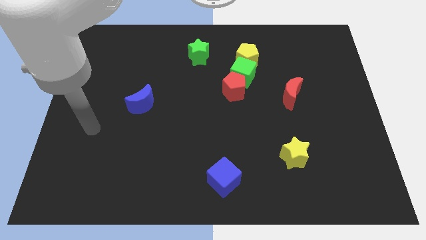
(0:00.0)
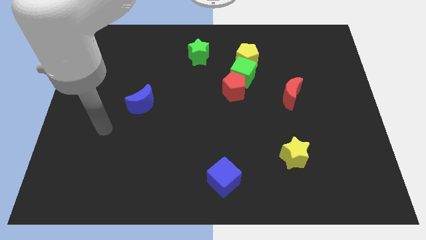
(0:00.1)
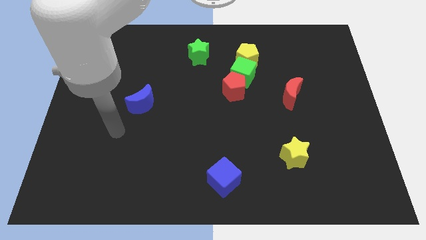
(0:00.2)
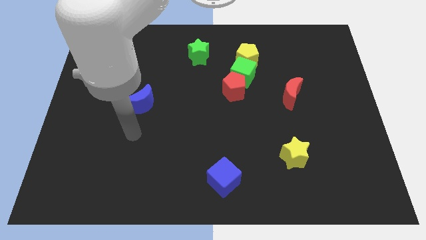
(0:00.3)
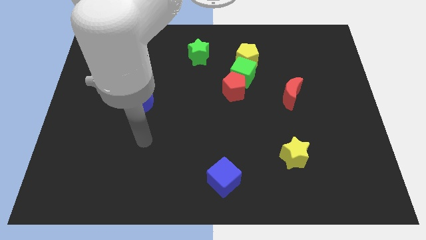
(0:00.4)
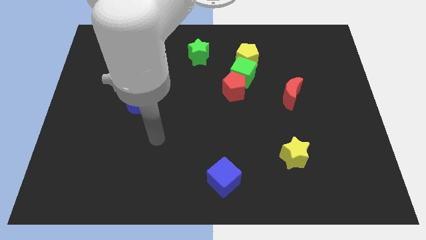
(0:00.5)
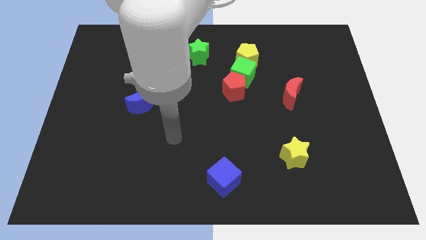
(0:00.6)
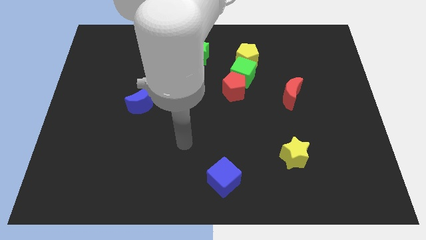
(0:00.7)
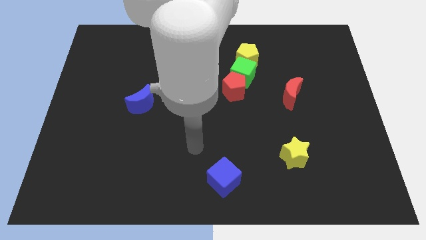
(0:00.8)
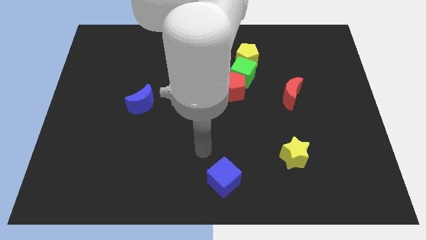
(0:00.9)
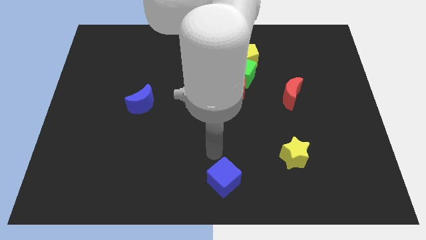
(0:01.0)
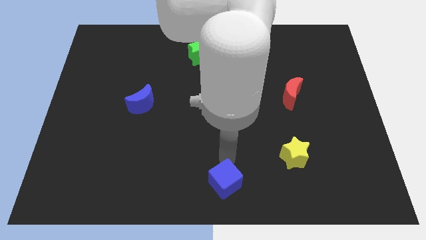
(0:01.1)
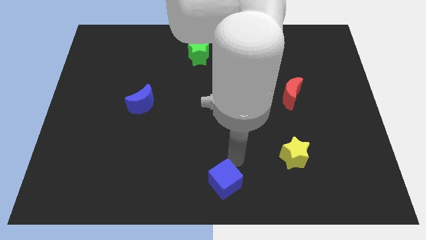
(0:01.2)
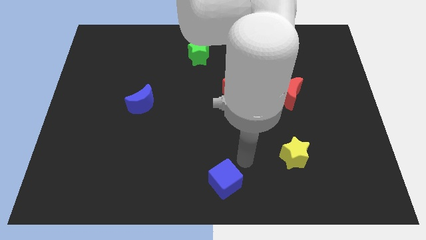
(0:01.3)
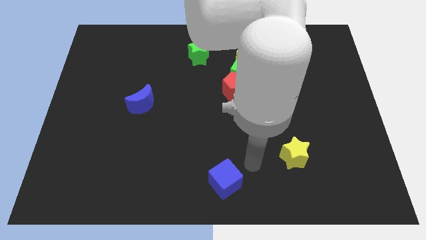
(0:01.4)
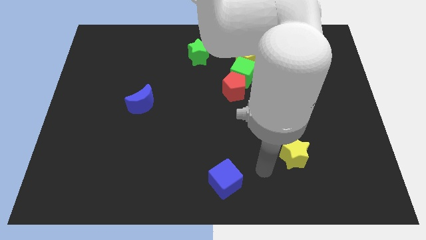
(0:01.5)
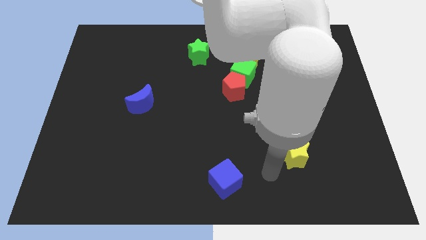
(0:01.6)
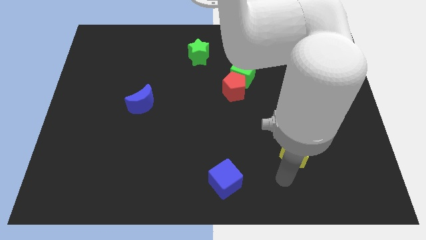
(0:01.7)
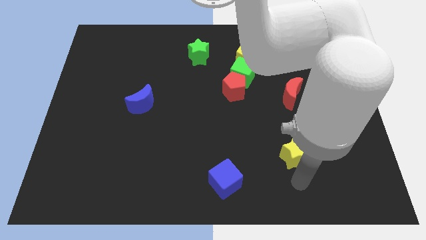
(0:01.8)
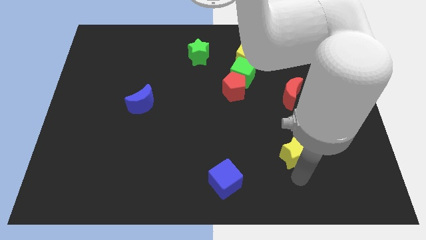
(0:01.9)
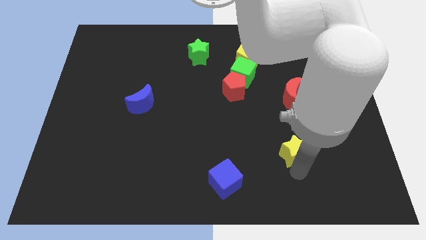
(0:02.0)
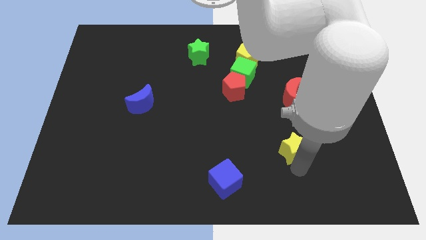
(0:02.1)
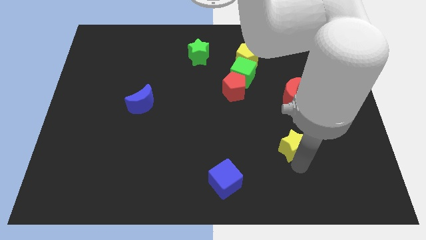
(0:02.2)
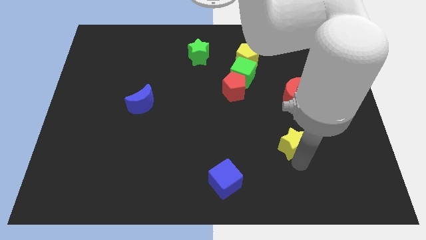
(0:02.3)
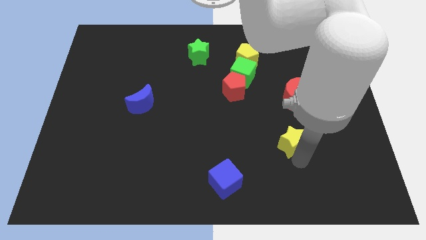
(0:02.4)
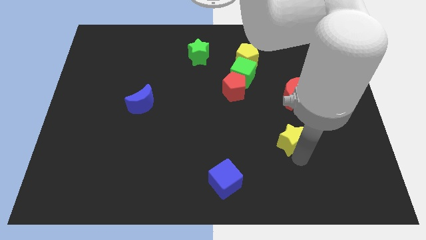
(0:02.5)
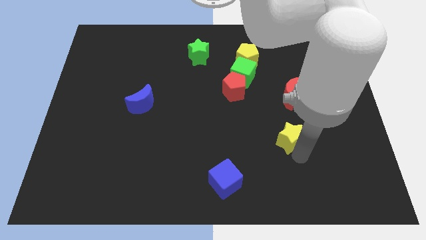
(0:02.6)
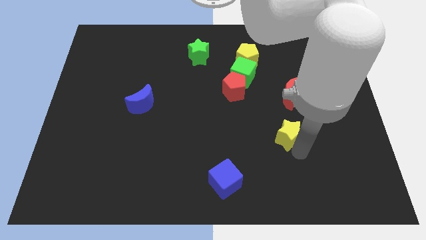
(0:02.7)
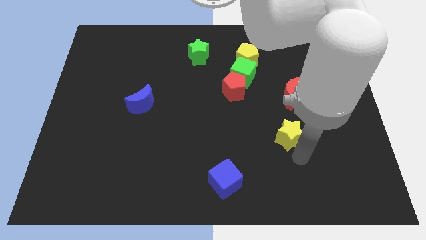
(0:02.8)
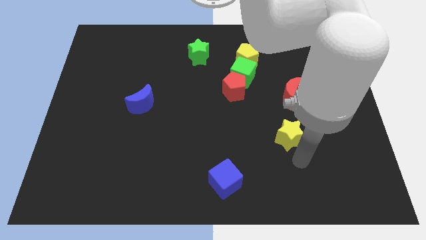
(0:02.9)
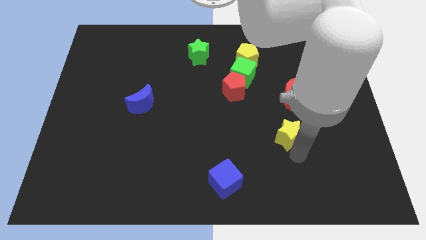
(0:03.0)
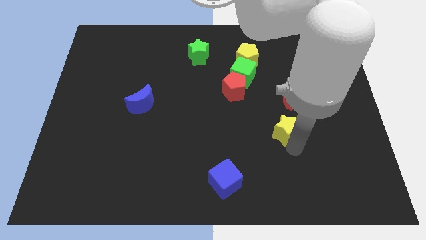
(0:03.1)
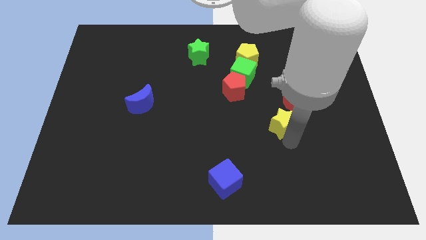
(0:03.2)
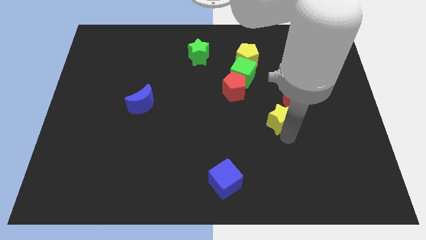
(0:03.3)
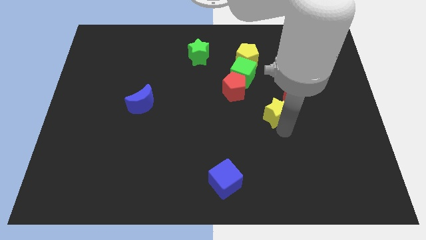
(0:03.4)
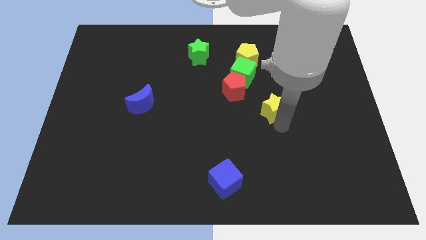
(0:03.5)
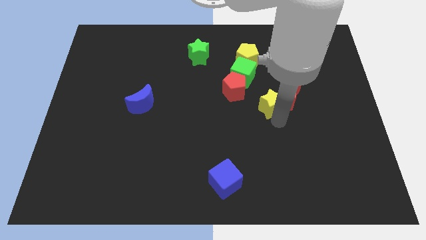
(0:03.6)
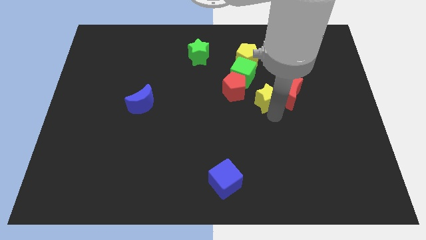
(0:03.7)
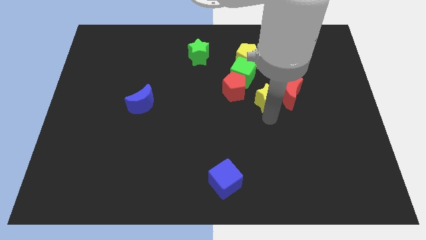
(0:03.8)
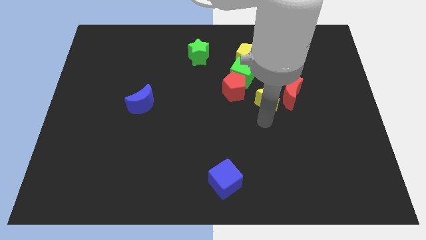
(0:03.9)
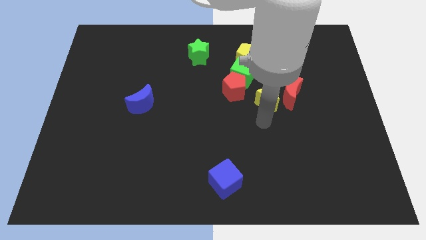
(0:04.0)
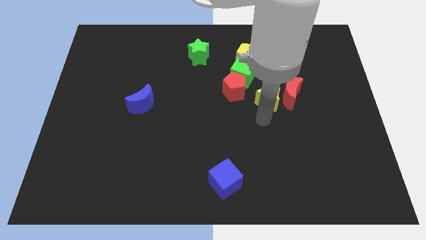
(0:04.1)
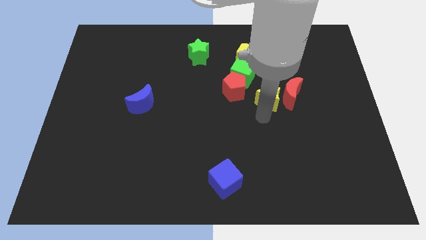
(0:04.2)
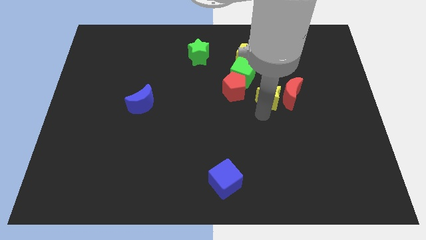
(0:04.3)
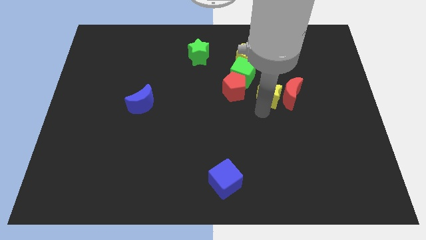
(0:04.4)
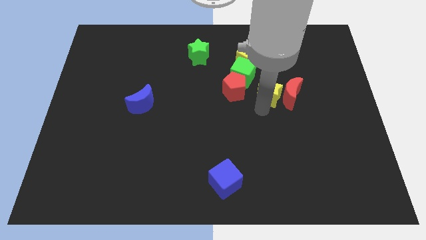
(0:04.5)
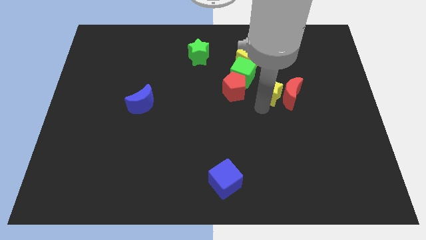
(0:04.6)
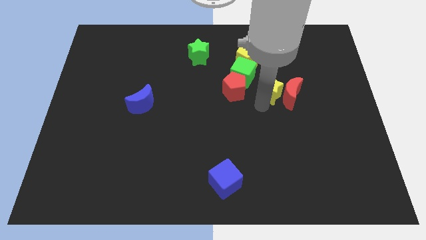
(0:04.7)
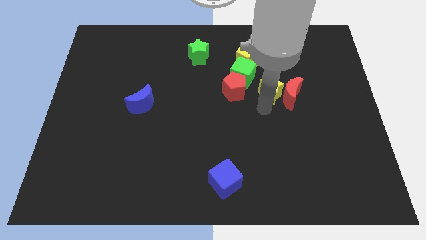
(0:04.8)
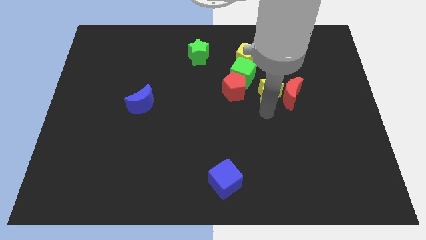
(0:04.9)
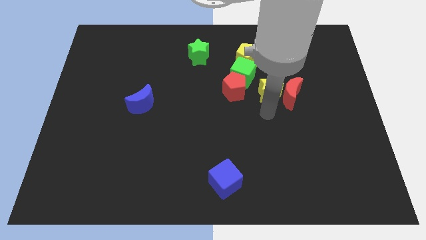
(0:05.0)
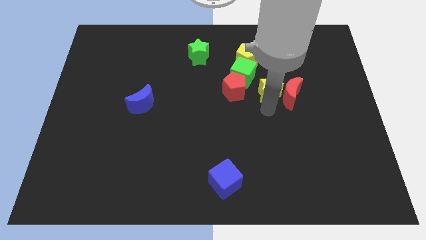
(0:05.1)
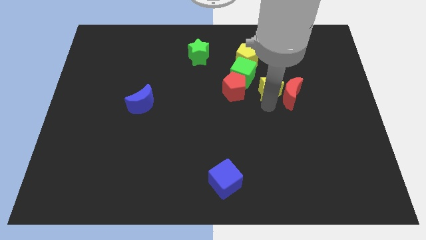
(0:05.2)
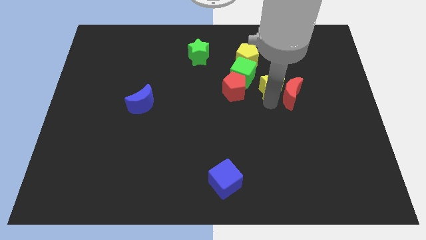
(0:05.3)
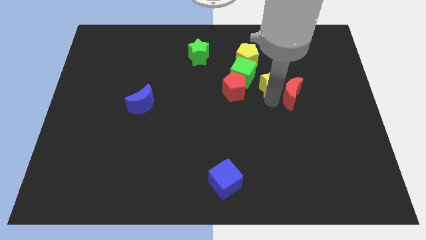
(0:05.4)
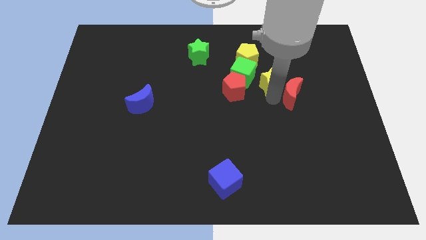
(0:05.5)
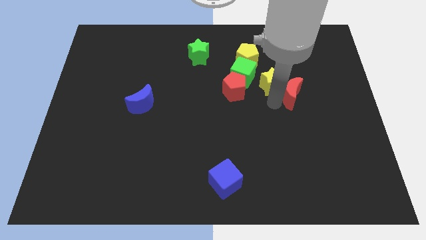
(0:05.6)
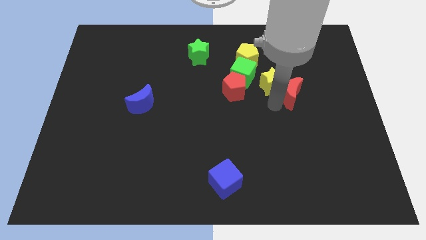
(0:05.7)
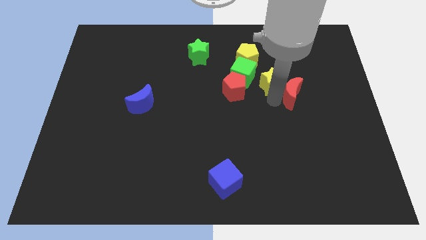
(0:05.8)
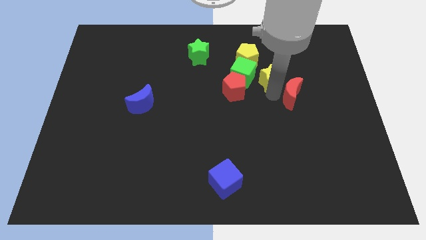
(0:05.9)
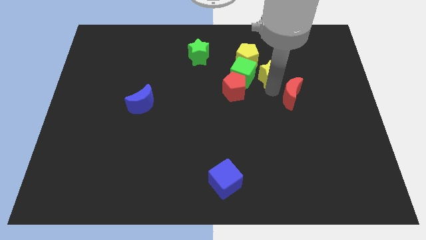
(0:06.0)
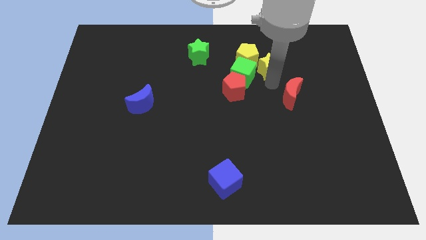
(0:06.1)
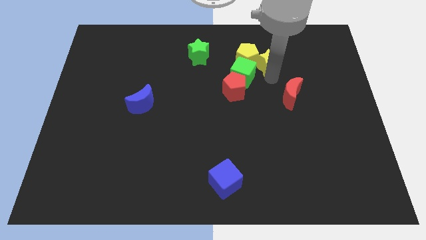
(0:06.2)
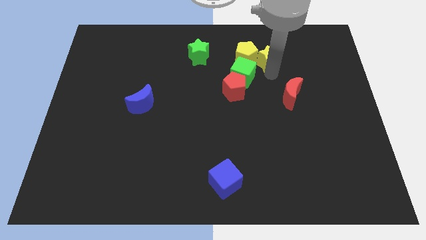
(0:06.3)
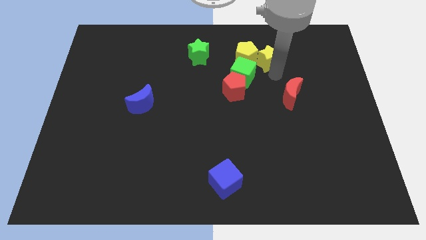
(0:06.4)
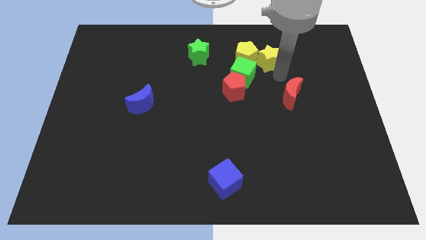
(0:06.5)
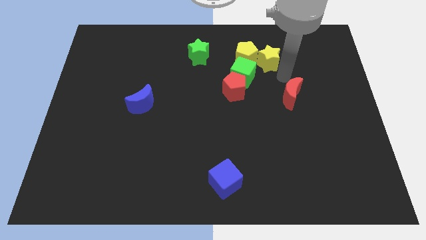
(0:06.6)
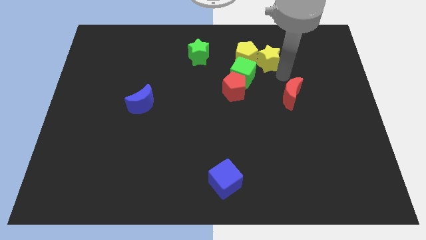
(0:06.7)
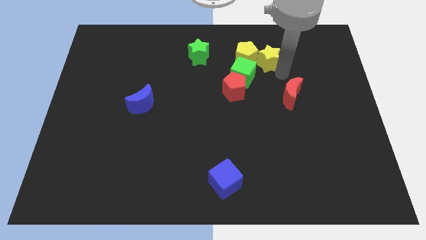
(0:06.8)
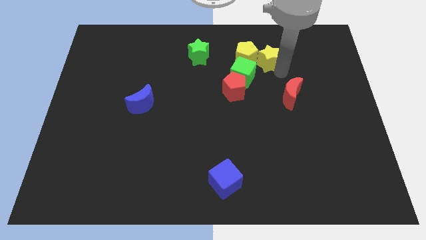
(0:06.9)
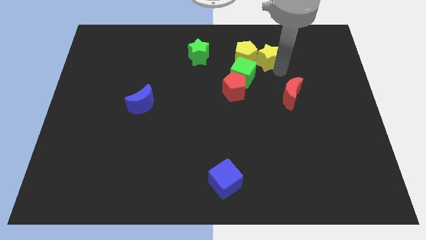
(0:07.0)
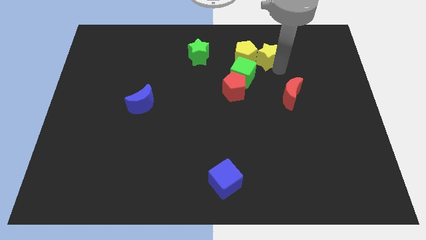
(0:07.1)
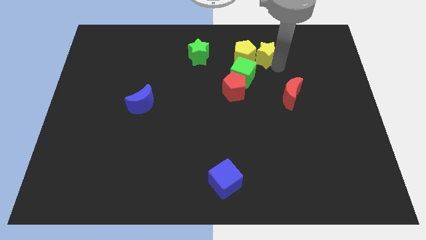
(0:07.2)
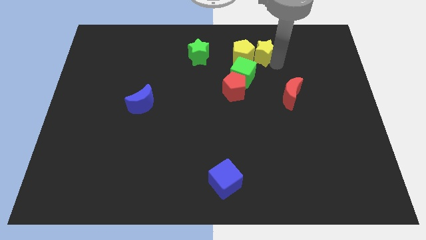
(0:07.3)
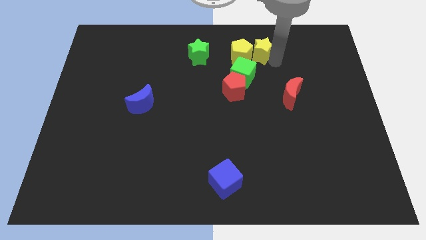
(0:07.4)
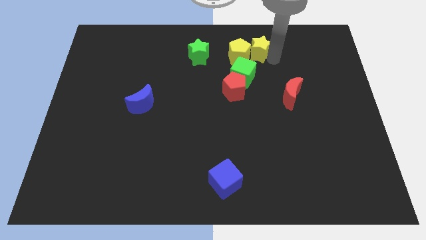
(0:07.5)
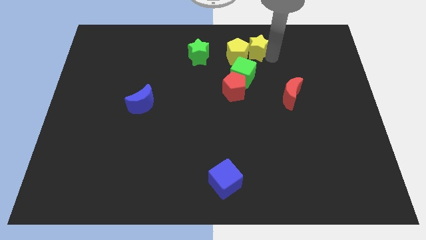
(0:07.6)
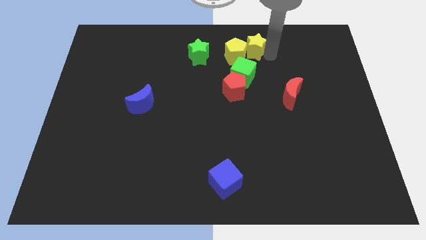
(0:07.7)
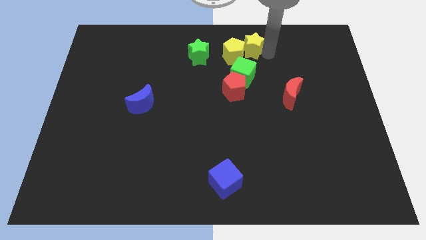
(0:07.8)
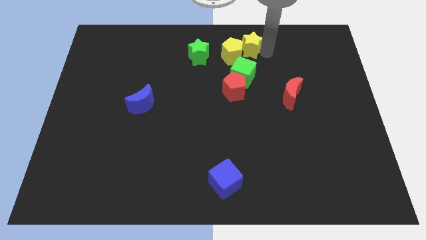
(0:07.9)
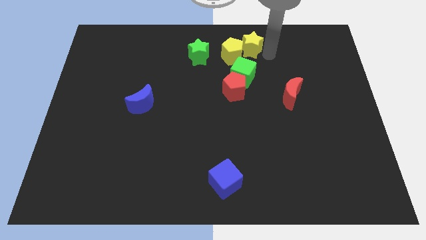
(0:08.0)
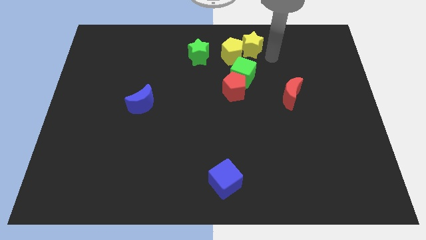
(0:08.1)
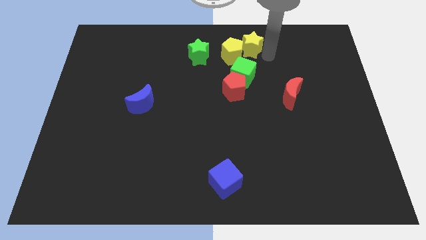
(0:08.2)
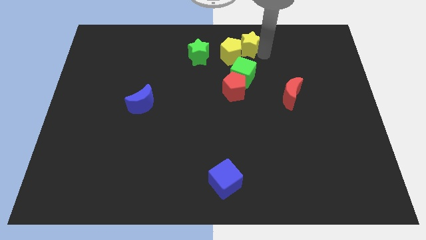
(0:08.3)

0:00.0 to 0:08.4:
slide the yellow star to the top side
